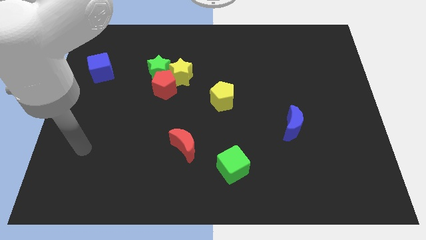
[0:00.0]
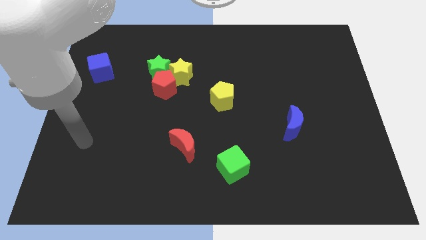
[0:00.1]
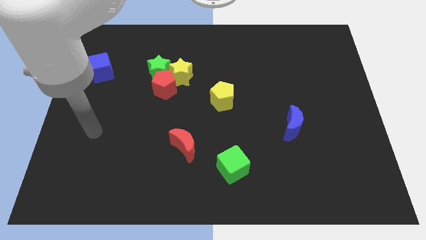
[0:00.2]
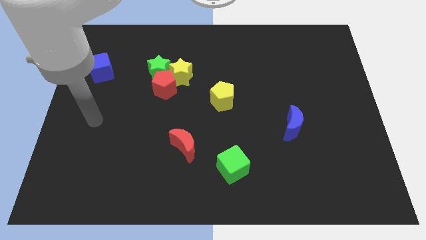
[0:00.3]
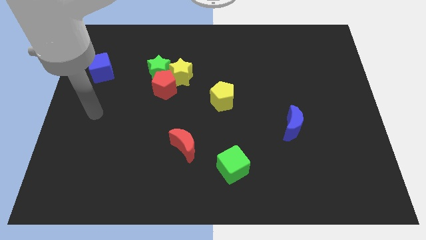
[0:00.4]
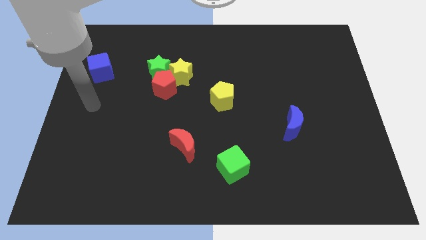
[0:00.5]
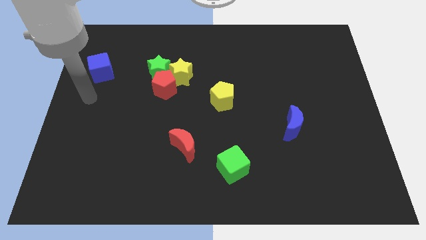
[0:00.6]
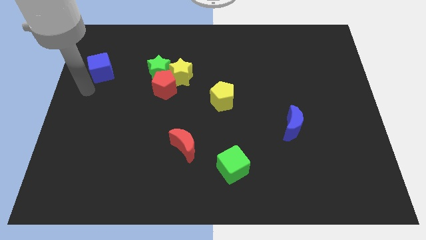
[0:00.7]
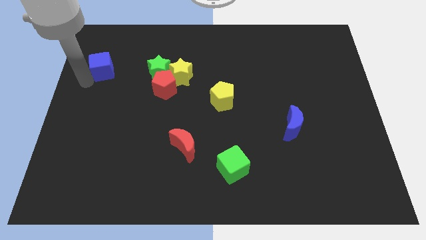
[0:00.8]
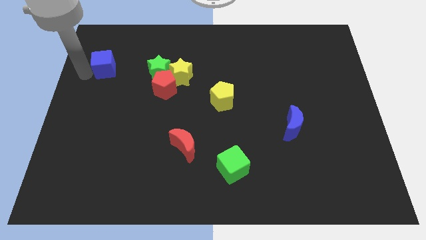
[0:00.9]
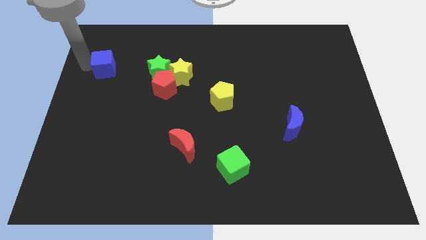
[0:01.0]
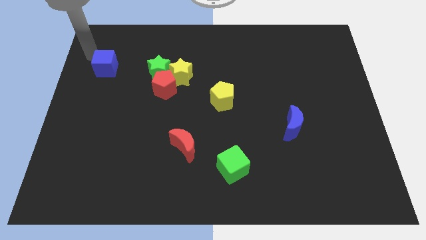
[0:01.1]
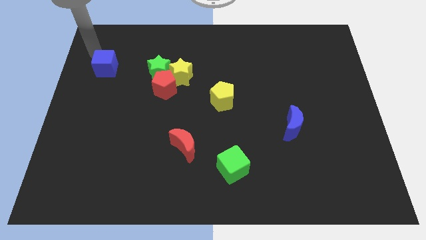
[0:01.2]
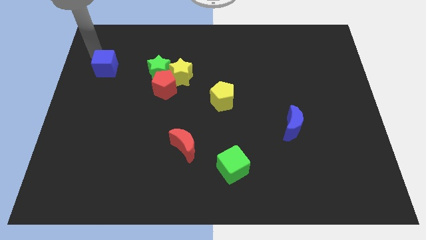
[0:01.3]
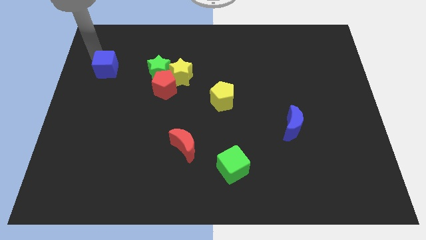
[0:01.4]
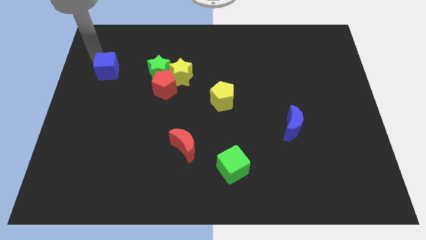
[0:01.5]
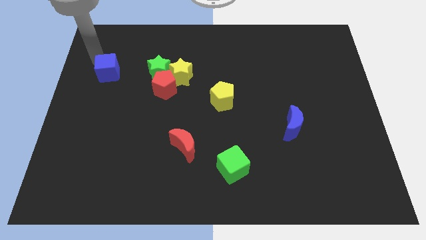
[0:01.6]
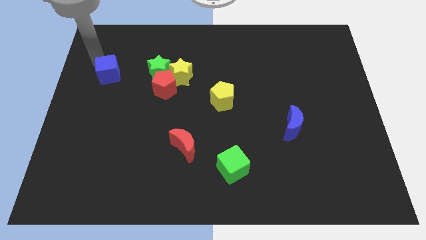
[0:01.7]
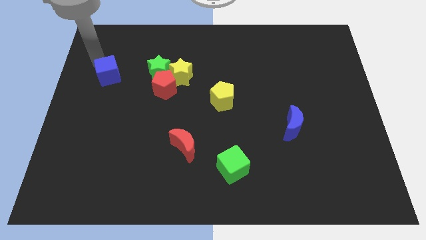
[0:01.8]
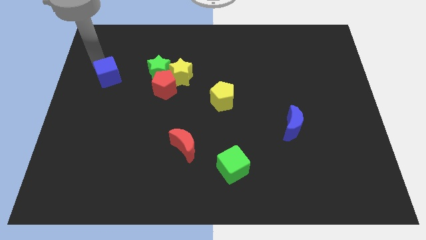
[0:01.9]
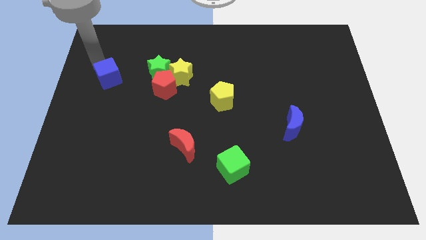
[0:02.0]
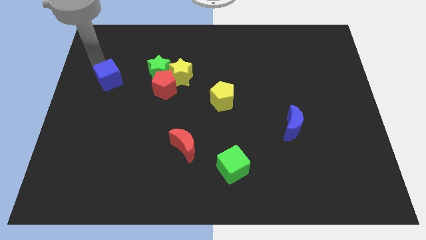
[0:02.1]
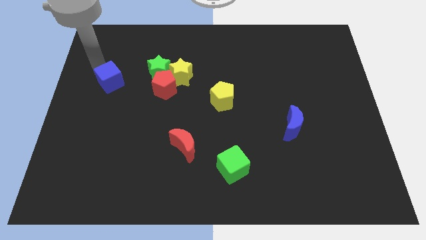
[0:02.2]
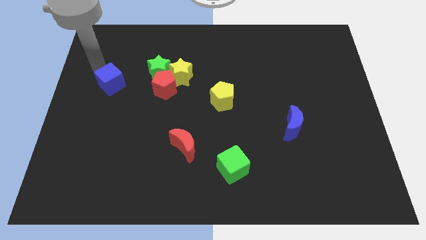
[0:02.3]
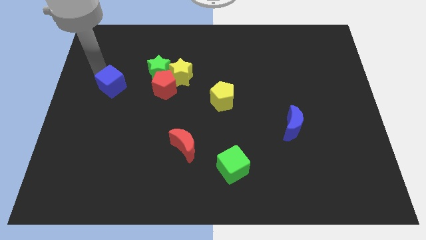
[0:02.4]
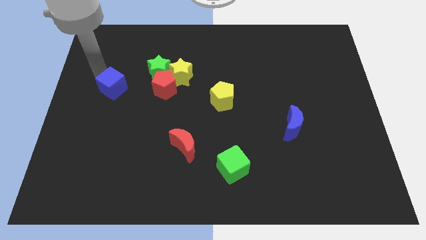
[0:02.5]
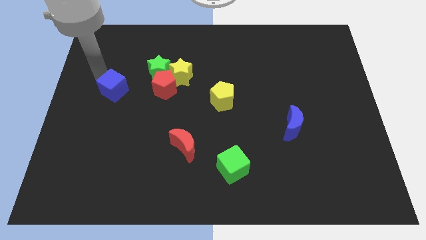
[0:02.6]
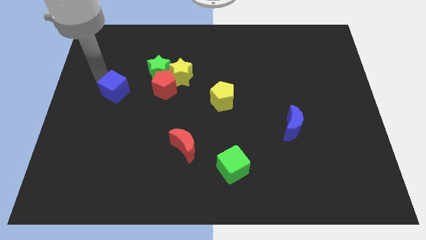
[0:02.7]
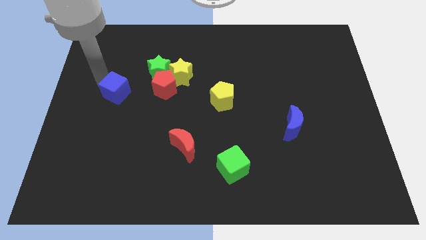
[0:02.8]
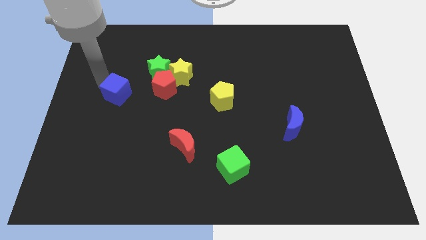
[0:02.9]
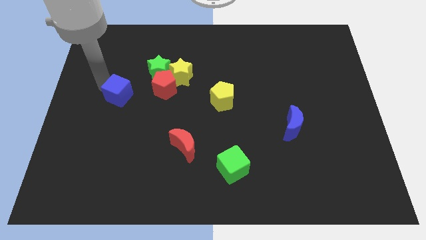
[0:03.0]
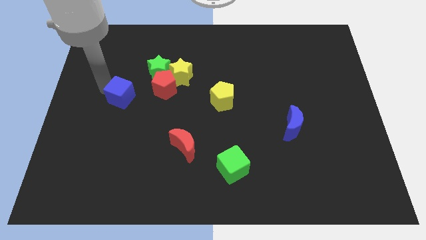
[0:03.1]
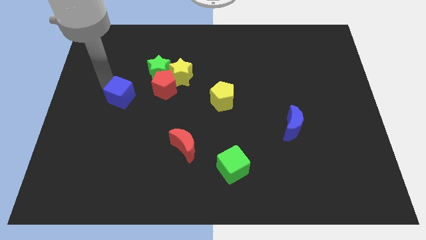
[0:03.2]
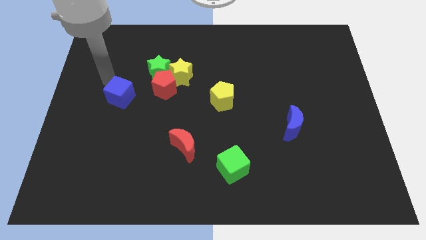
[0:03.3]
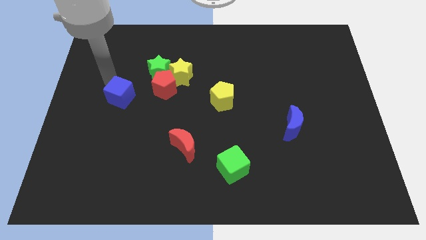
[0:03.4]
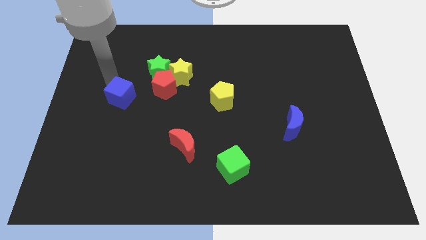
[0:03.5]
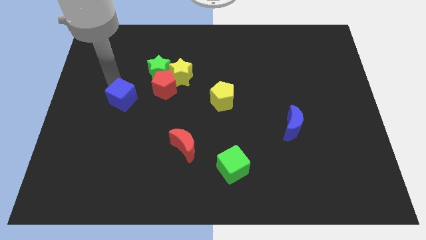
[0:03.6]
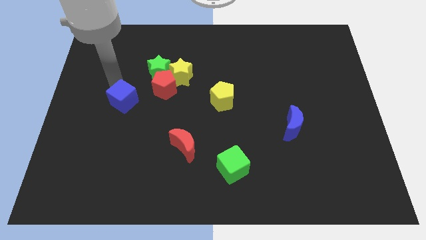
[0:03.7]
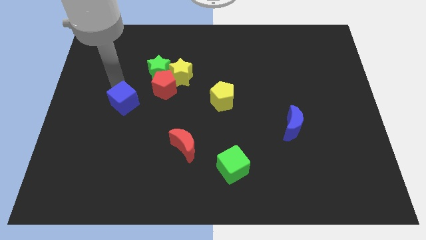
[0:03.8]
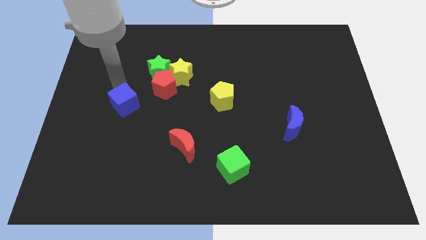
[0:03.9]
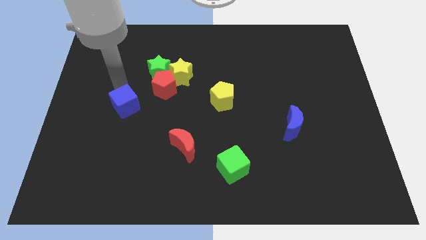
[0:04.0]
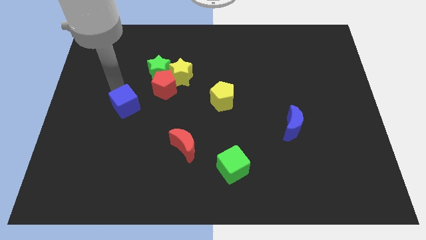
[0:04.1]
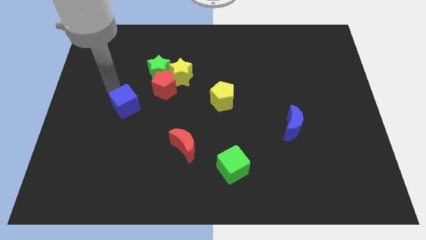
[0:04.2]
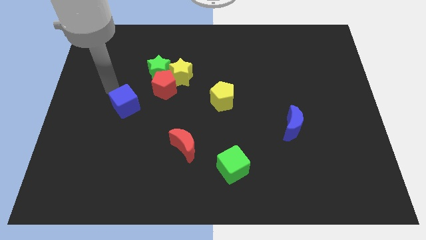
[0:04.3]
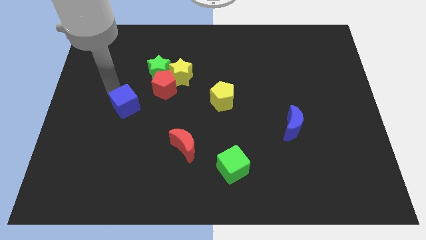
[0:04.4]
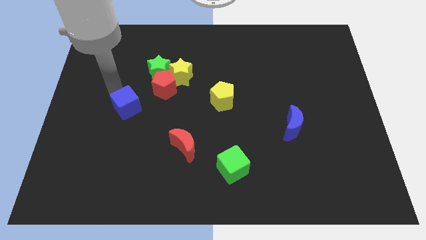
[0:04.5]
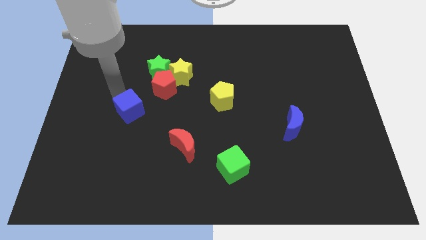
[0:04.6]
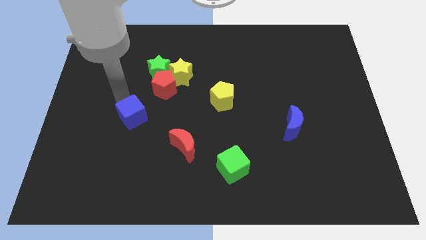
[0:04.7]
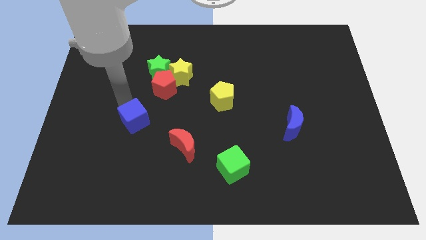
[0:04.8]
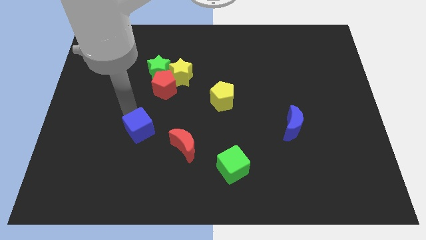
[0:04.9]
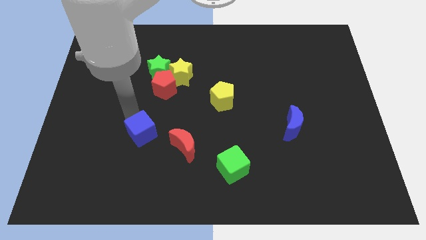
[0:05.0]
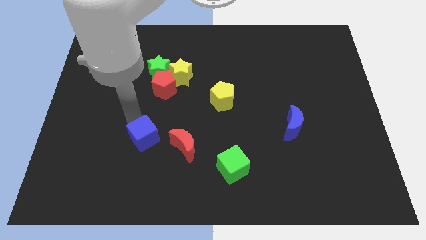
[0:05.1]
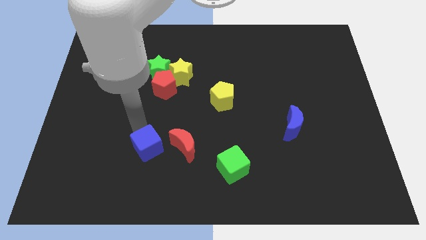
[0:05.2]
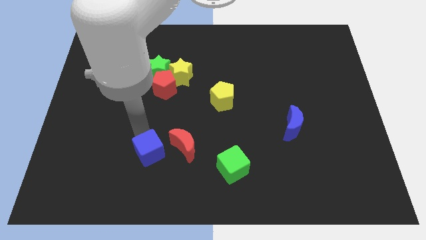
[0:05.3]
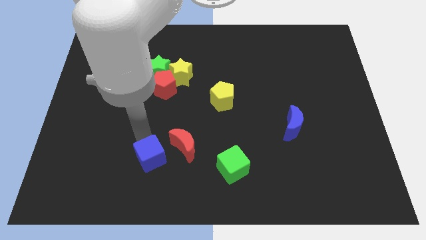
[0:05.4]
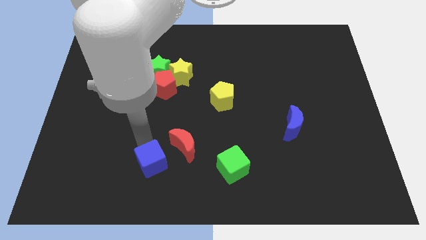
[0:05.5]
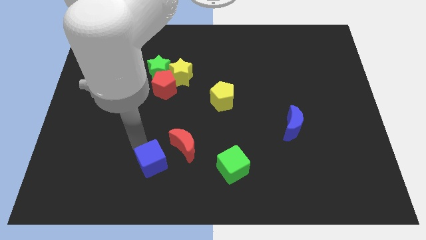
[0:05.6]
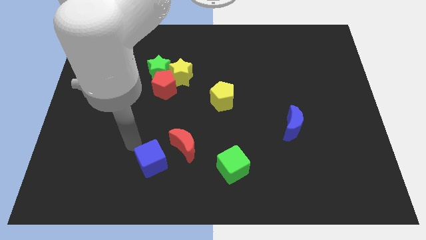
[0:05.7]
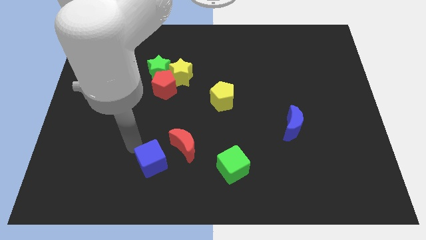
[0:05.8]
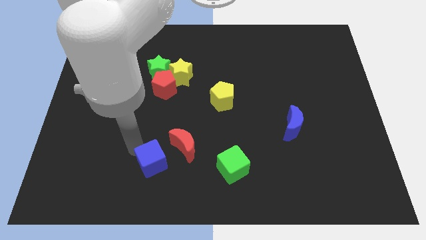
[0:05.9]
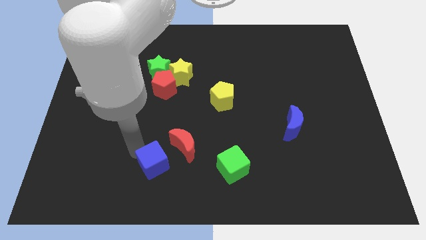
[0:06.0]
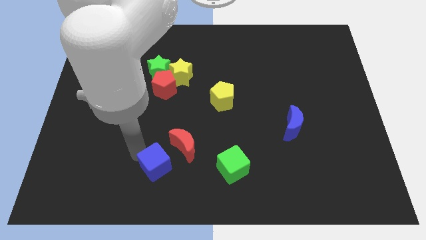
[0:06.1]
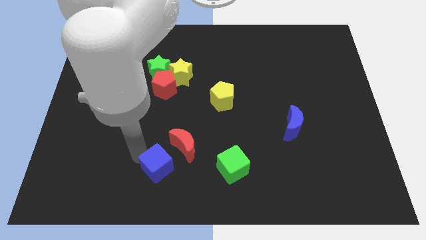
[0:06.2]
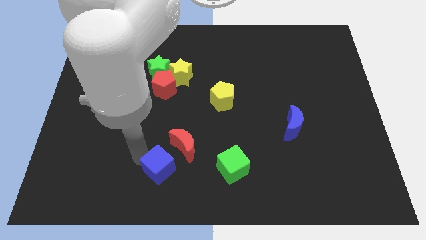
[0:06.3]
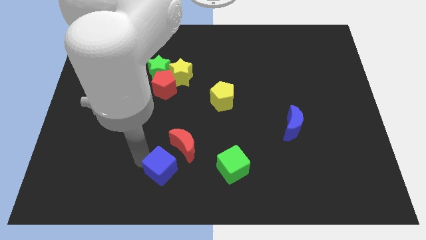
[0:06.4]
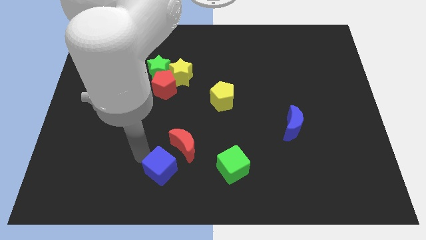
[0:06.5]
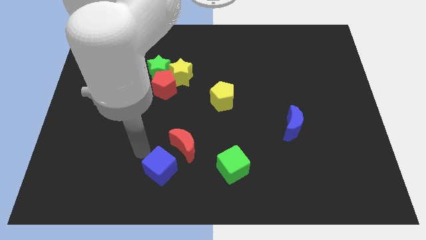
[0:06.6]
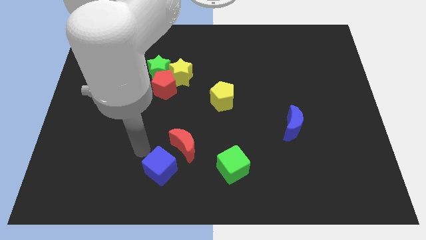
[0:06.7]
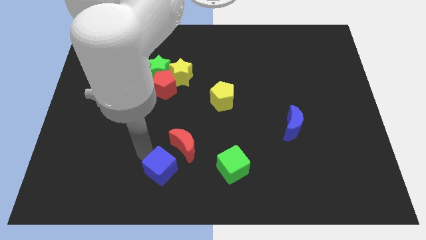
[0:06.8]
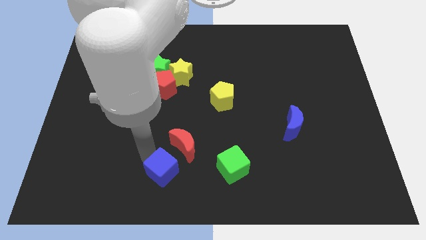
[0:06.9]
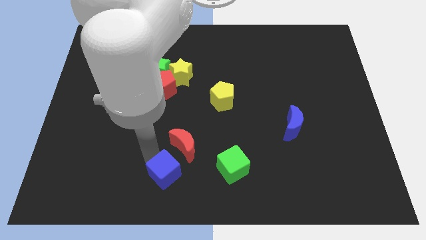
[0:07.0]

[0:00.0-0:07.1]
move the blue cube to the bottom

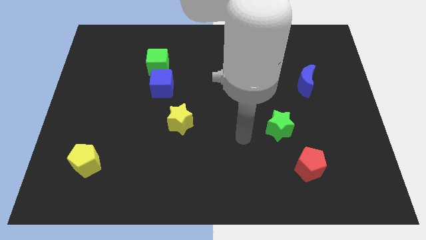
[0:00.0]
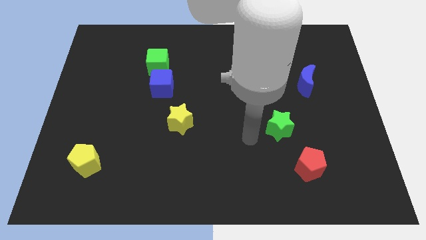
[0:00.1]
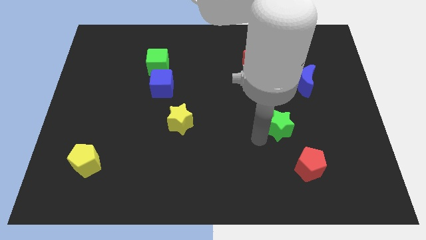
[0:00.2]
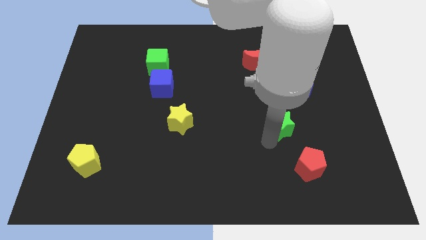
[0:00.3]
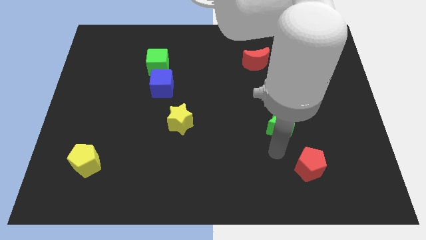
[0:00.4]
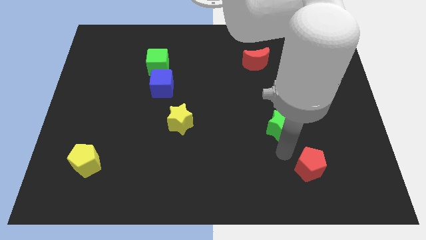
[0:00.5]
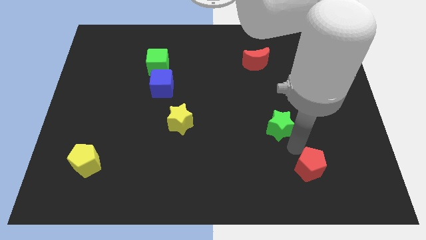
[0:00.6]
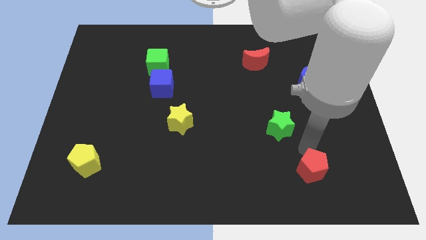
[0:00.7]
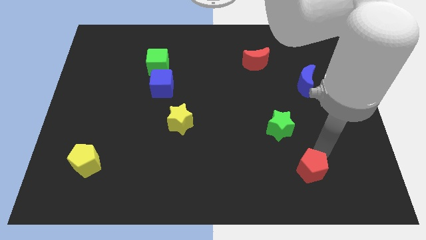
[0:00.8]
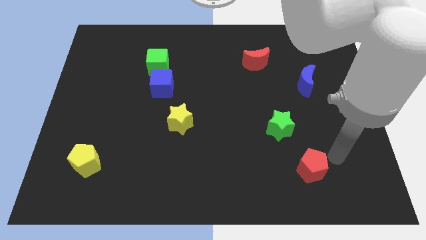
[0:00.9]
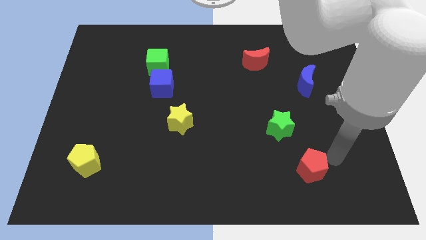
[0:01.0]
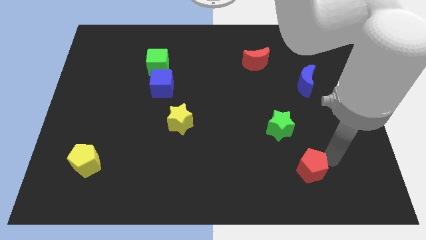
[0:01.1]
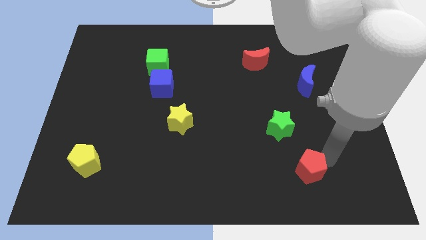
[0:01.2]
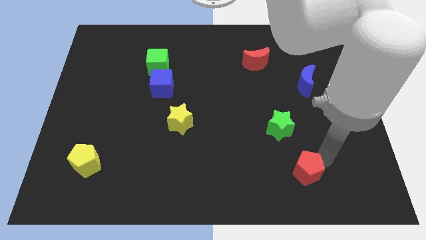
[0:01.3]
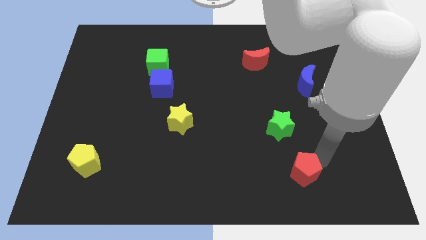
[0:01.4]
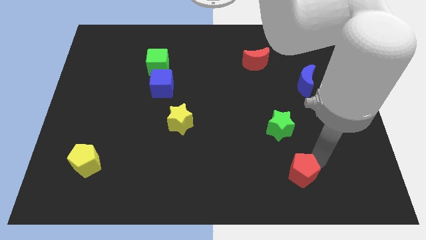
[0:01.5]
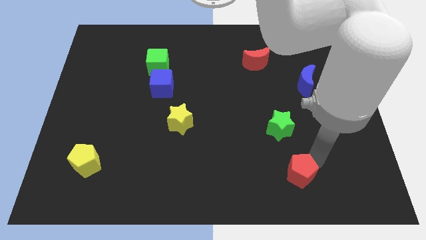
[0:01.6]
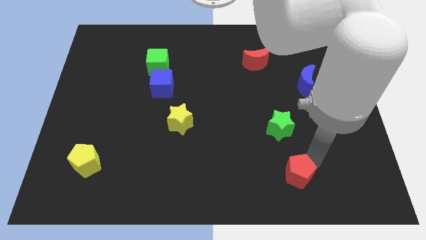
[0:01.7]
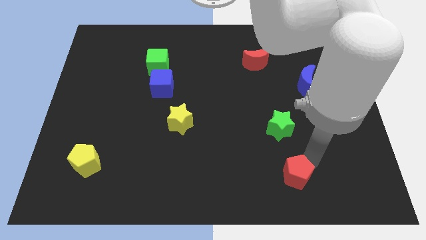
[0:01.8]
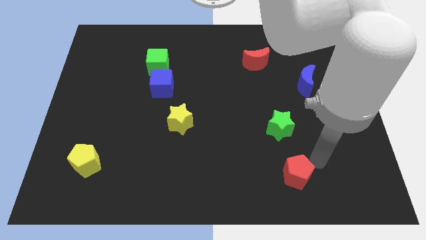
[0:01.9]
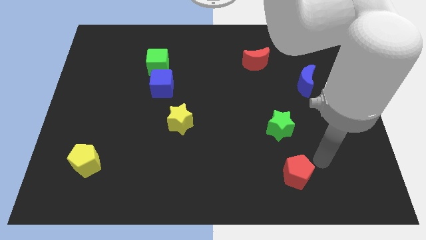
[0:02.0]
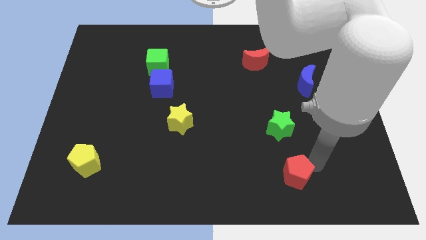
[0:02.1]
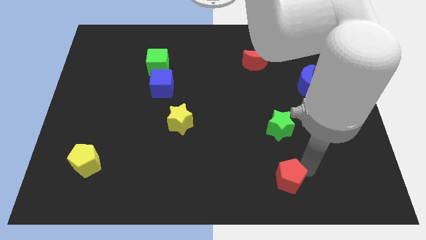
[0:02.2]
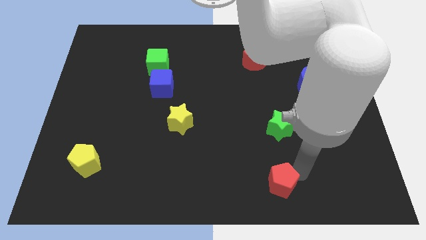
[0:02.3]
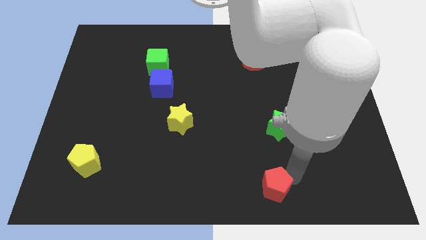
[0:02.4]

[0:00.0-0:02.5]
move the red pentagon to the bottom
